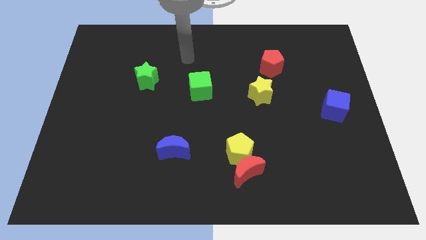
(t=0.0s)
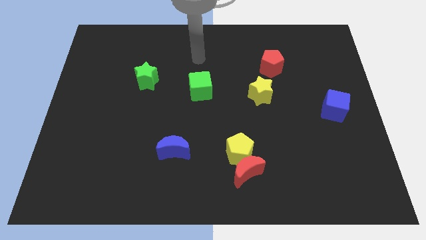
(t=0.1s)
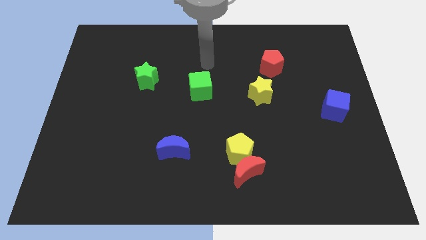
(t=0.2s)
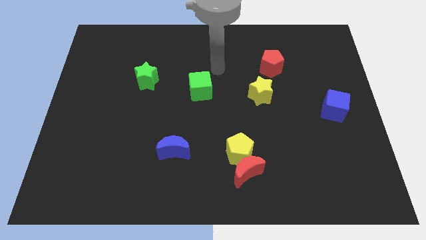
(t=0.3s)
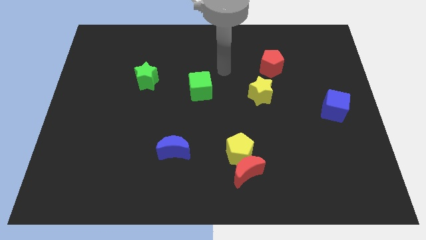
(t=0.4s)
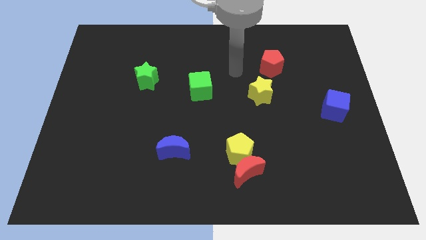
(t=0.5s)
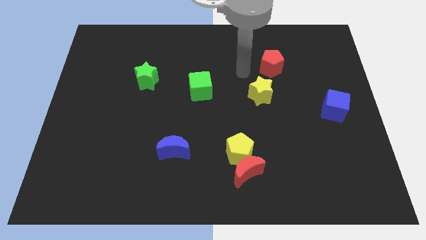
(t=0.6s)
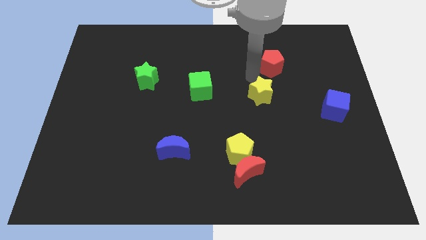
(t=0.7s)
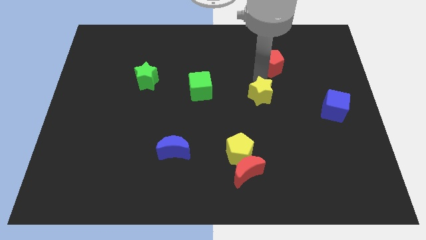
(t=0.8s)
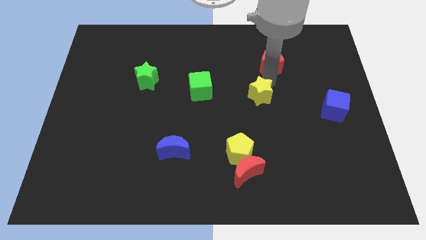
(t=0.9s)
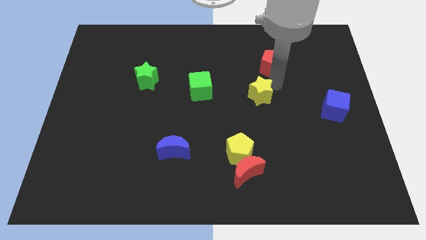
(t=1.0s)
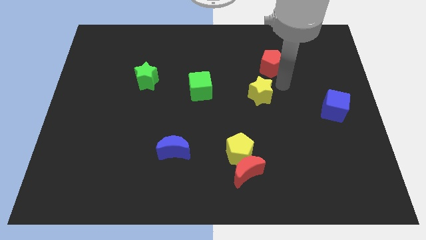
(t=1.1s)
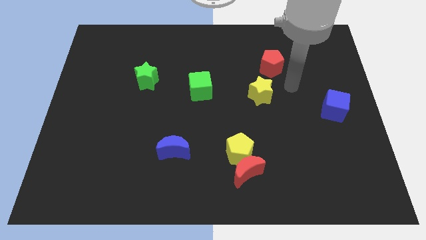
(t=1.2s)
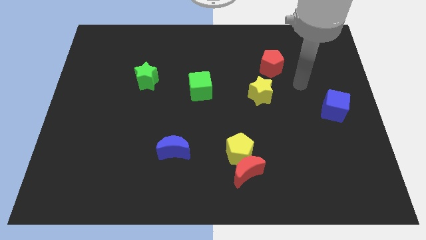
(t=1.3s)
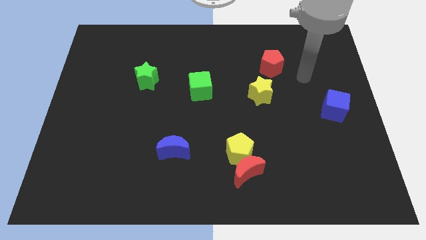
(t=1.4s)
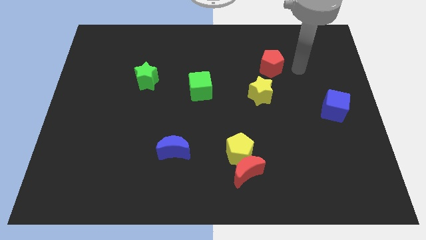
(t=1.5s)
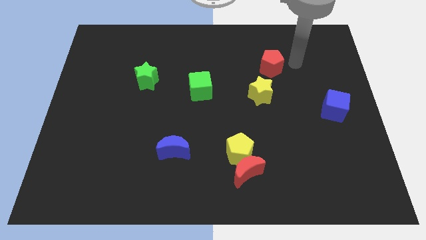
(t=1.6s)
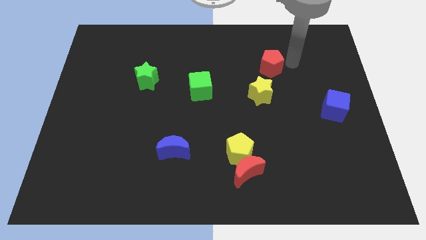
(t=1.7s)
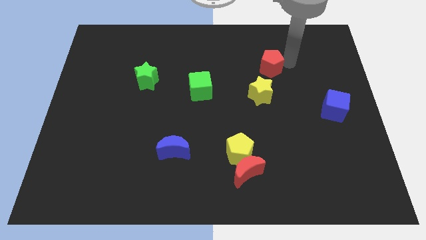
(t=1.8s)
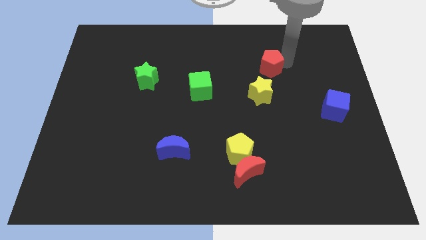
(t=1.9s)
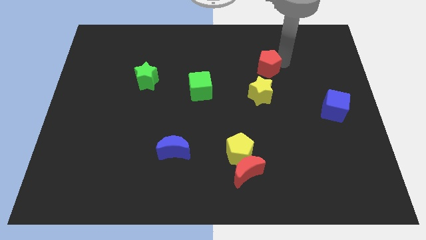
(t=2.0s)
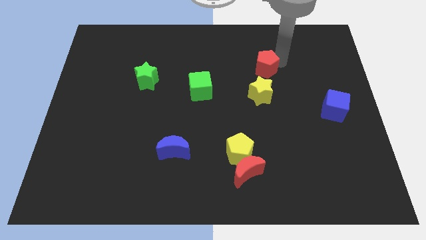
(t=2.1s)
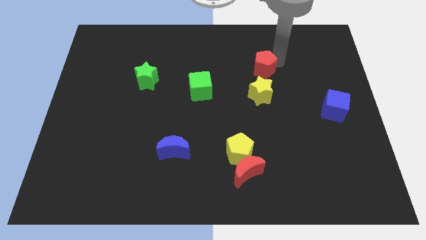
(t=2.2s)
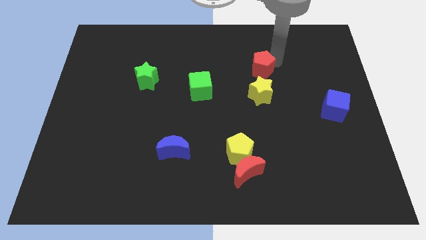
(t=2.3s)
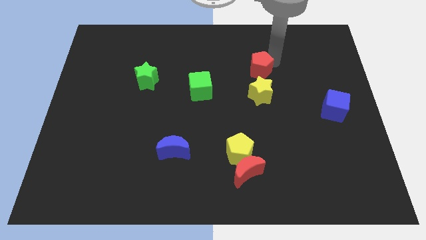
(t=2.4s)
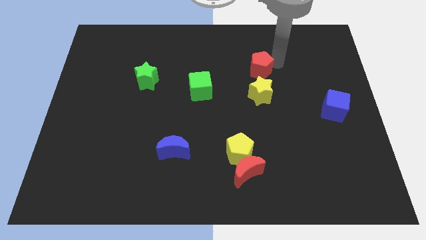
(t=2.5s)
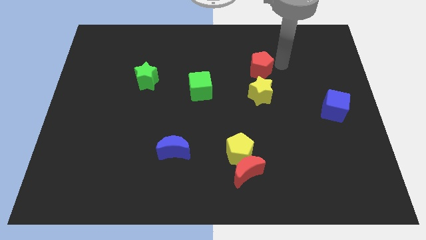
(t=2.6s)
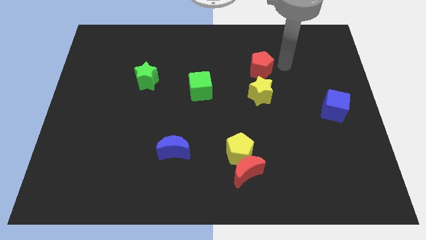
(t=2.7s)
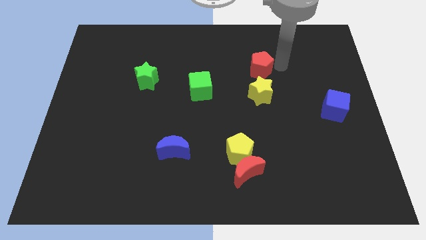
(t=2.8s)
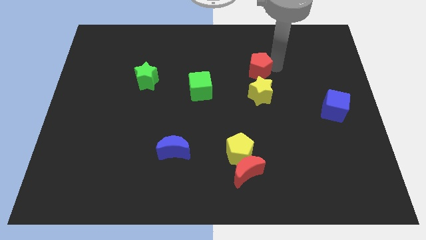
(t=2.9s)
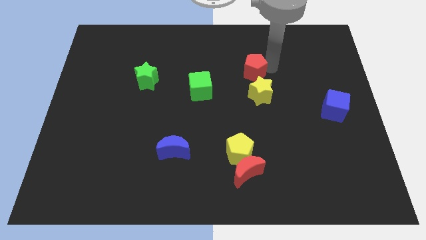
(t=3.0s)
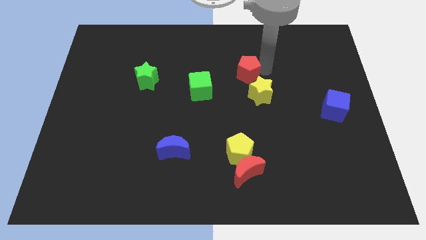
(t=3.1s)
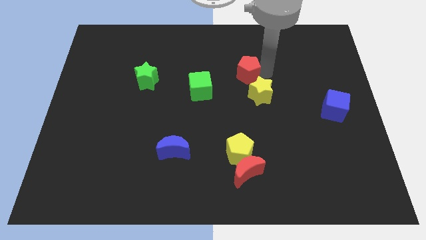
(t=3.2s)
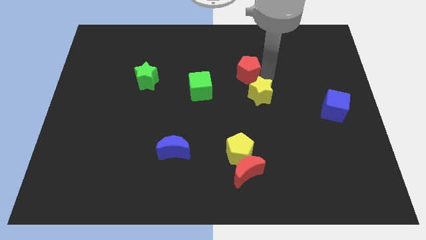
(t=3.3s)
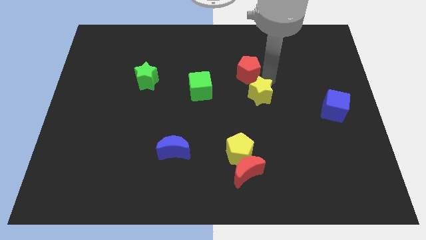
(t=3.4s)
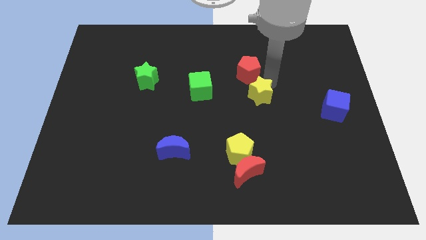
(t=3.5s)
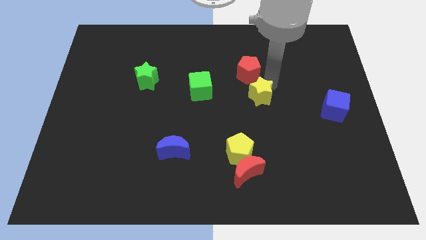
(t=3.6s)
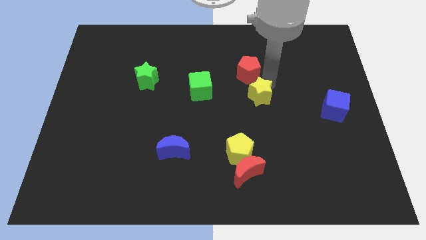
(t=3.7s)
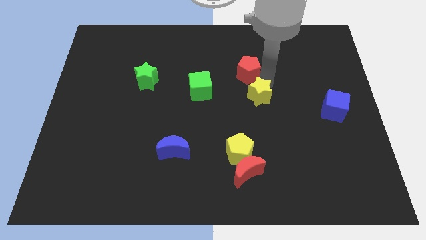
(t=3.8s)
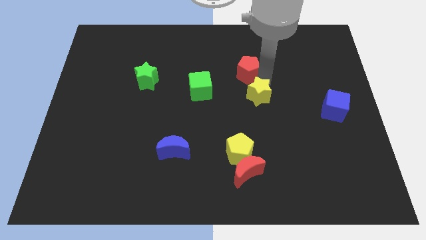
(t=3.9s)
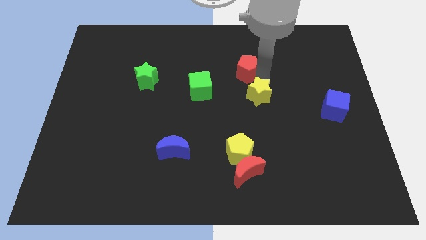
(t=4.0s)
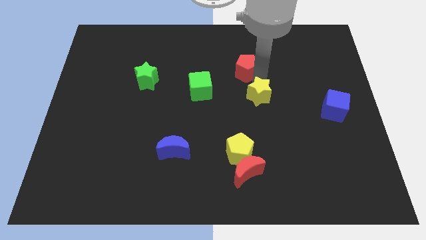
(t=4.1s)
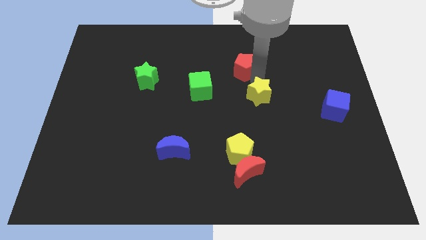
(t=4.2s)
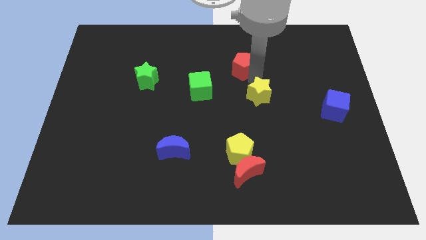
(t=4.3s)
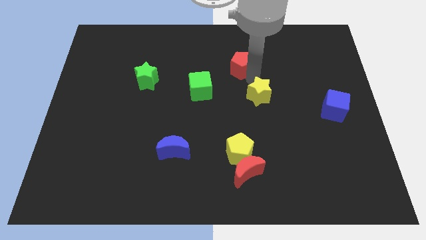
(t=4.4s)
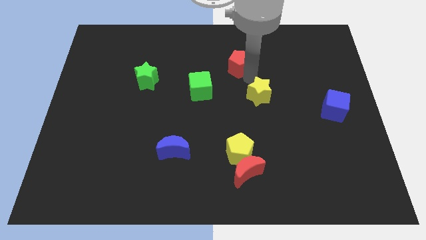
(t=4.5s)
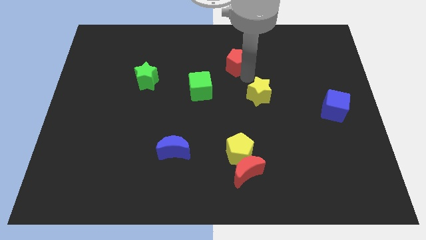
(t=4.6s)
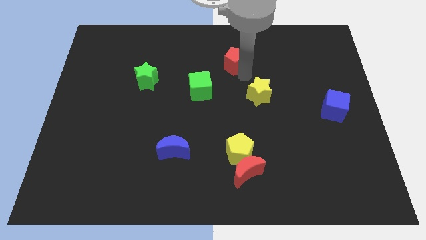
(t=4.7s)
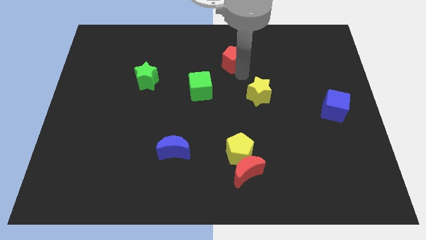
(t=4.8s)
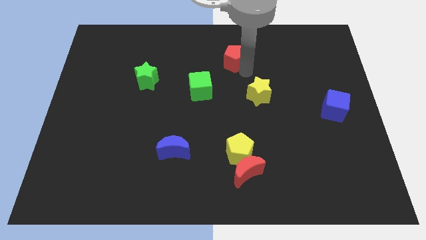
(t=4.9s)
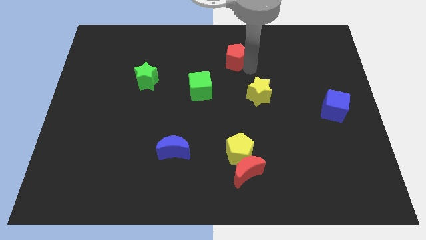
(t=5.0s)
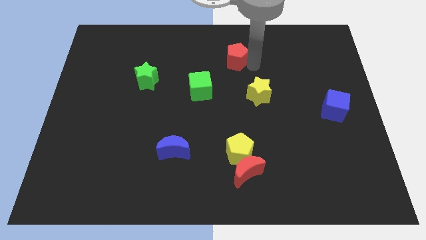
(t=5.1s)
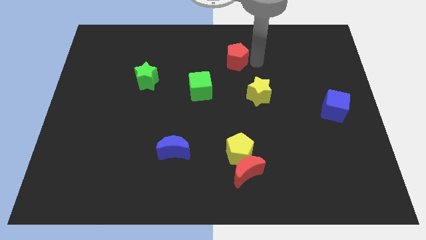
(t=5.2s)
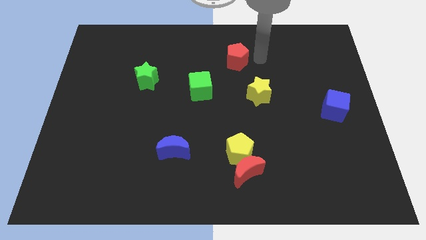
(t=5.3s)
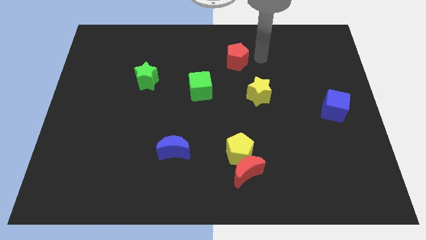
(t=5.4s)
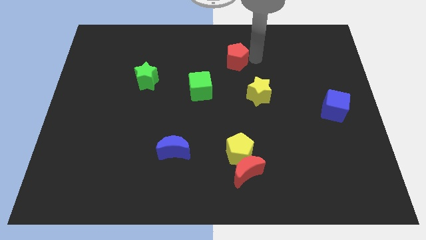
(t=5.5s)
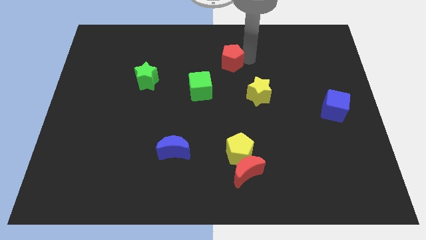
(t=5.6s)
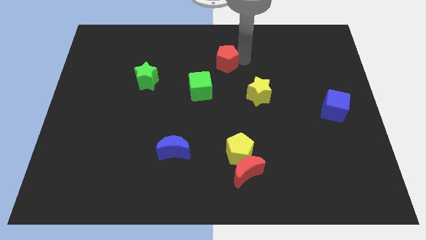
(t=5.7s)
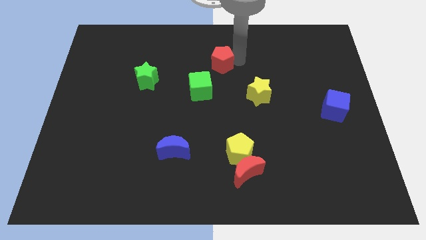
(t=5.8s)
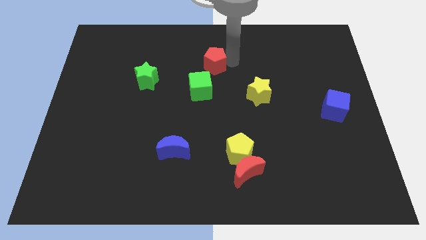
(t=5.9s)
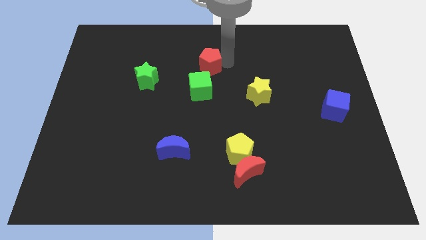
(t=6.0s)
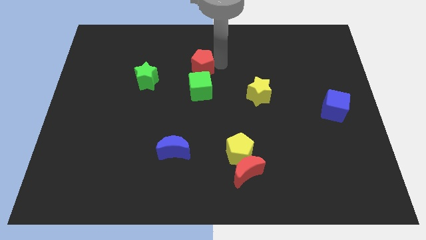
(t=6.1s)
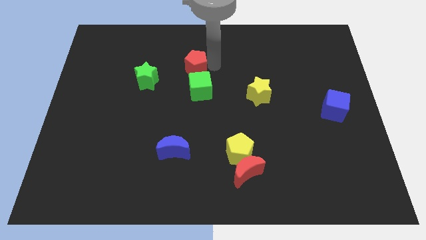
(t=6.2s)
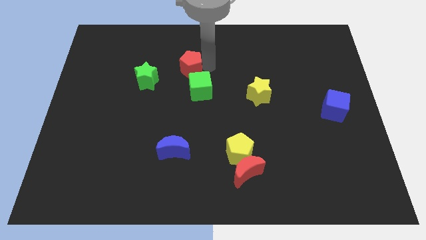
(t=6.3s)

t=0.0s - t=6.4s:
push the red pentagon left

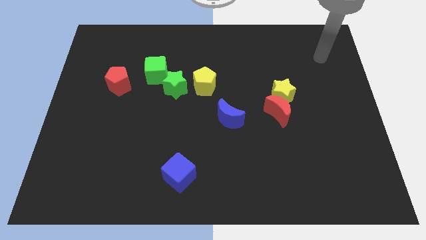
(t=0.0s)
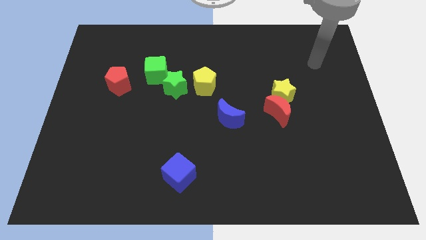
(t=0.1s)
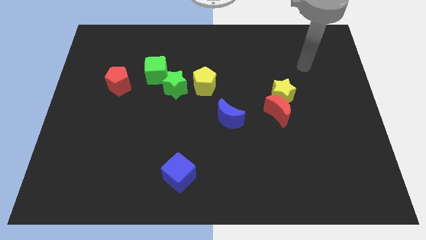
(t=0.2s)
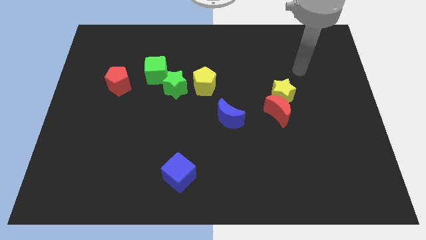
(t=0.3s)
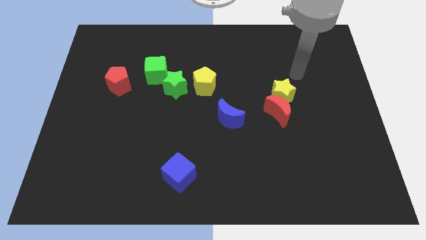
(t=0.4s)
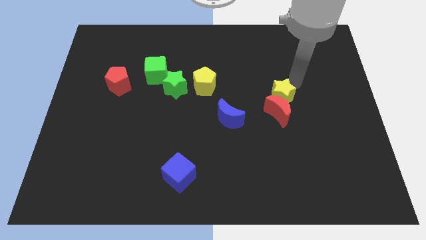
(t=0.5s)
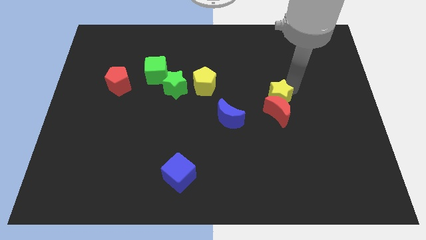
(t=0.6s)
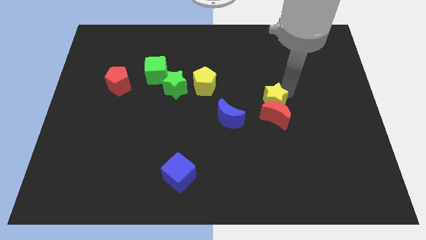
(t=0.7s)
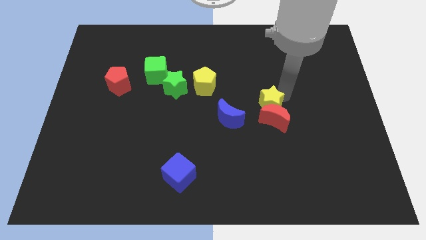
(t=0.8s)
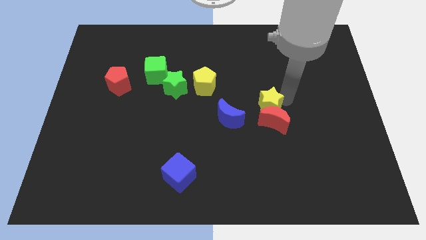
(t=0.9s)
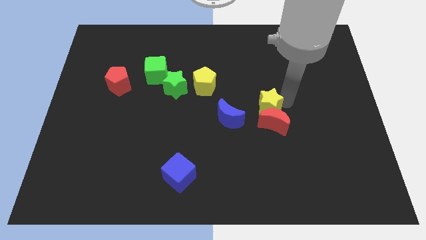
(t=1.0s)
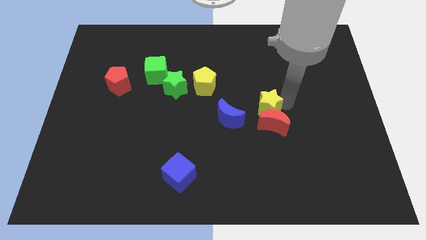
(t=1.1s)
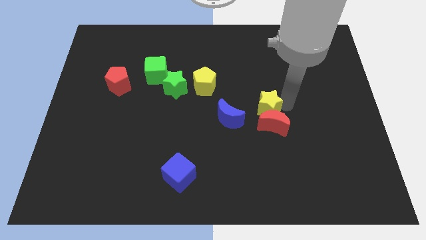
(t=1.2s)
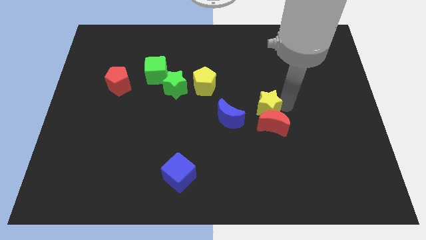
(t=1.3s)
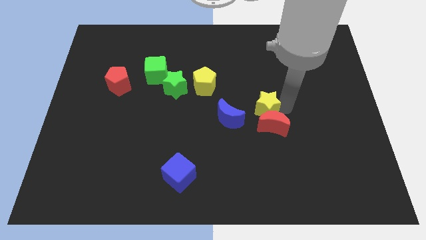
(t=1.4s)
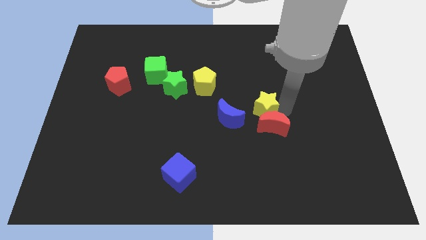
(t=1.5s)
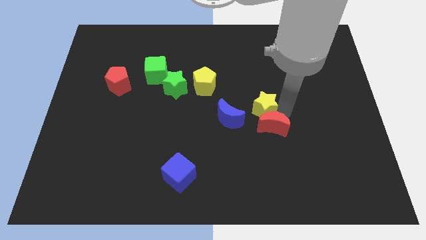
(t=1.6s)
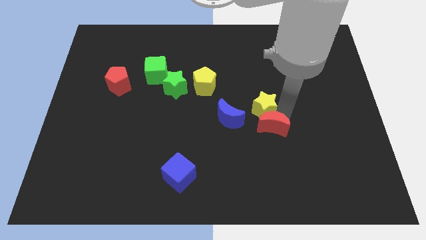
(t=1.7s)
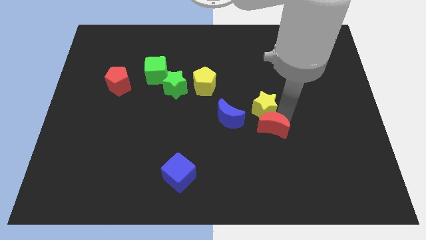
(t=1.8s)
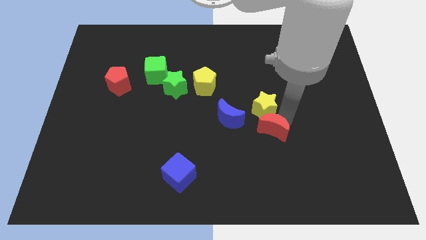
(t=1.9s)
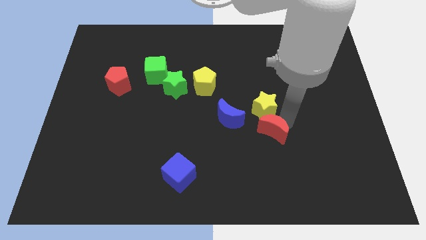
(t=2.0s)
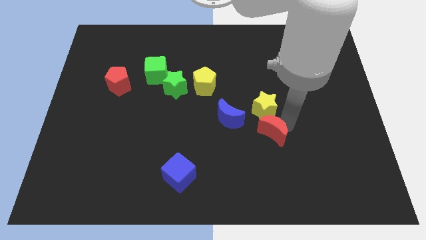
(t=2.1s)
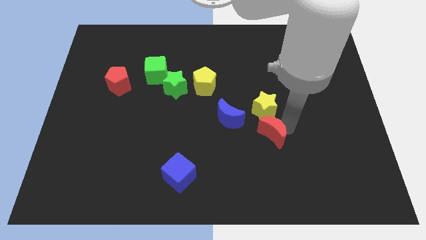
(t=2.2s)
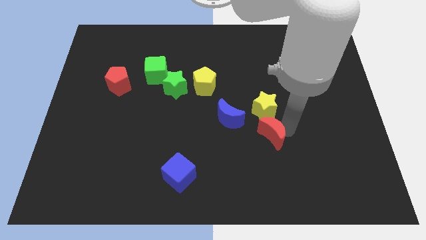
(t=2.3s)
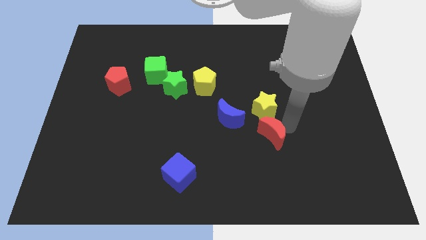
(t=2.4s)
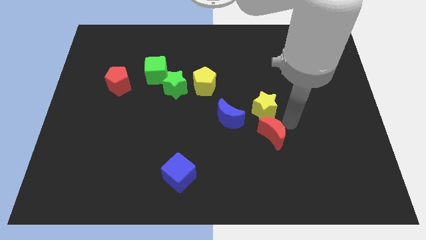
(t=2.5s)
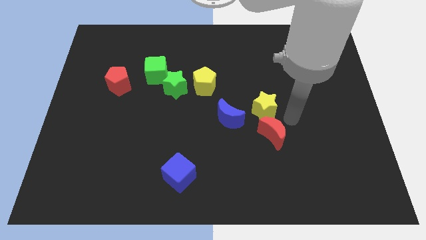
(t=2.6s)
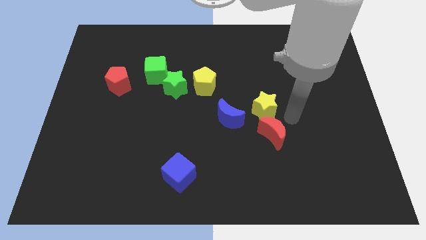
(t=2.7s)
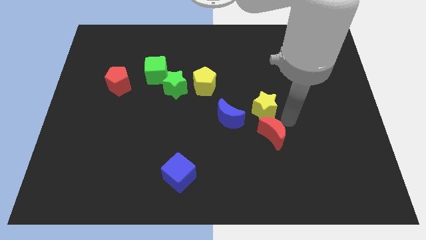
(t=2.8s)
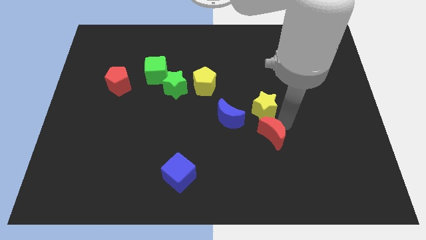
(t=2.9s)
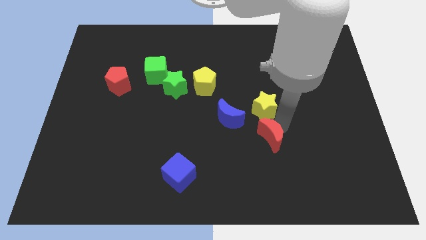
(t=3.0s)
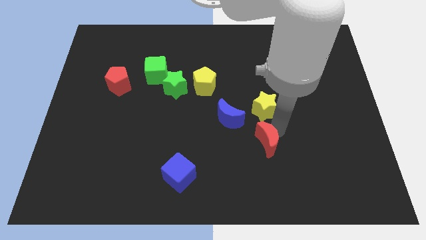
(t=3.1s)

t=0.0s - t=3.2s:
slide the red moon downwards and then to the left a little
